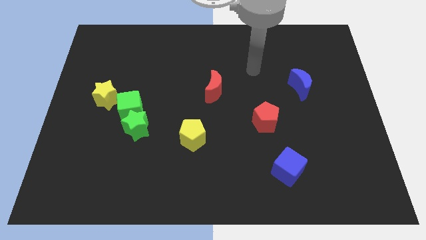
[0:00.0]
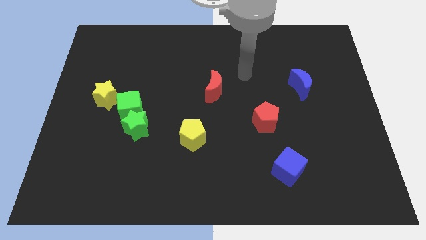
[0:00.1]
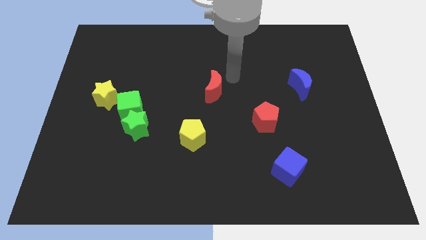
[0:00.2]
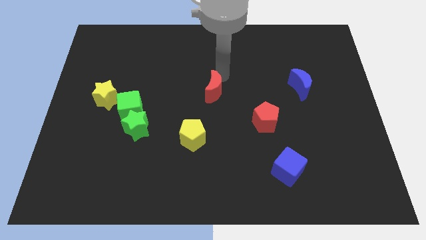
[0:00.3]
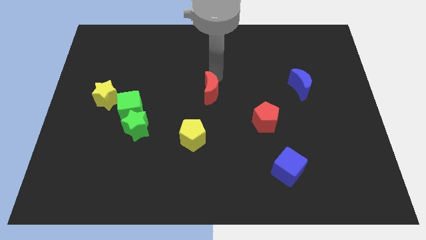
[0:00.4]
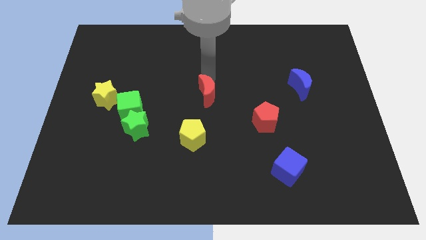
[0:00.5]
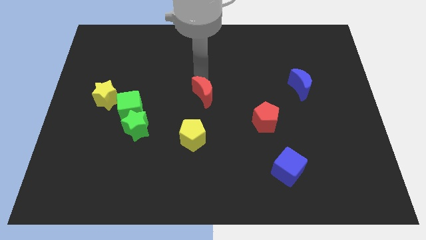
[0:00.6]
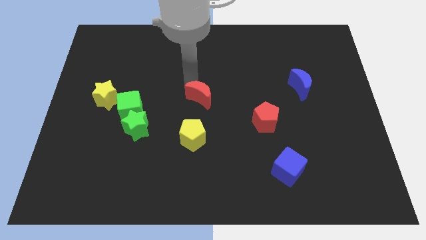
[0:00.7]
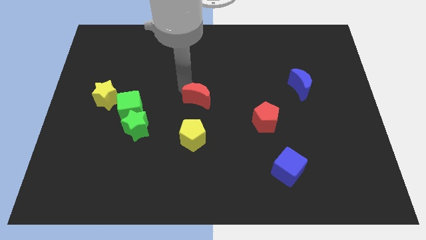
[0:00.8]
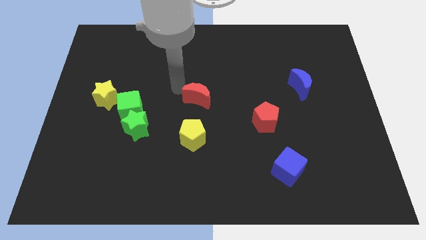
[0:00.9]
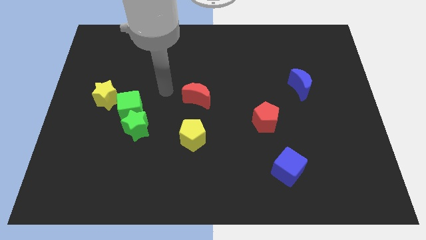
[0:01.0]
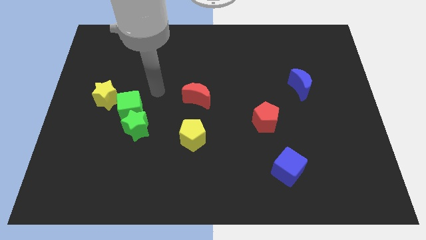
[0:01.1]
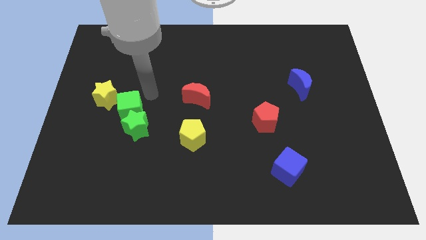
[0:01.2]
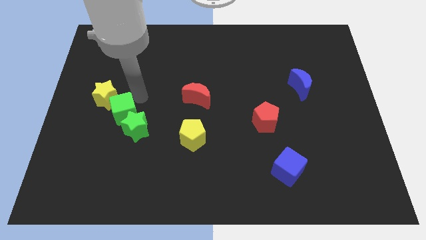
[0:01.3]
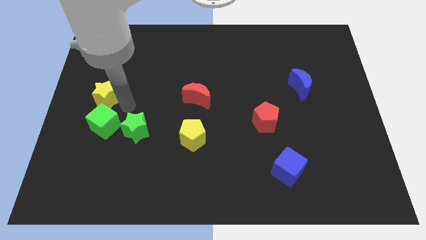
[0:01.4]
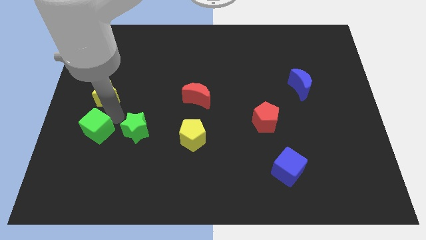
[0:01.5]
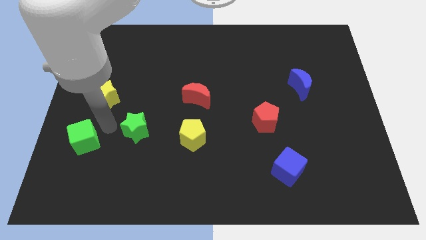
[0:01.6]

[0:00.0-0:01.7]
pull the green star apart from the green cube

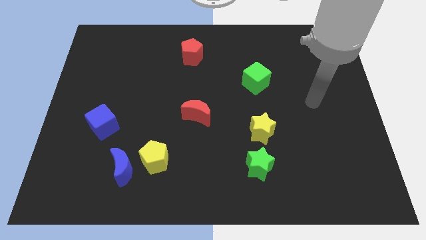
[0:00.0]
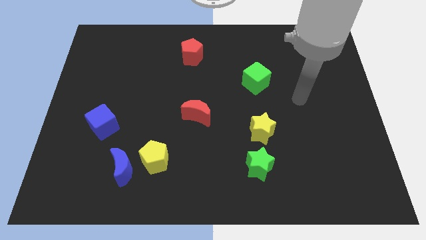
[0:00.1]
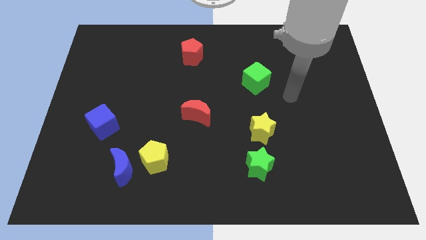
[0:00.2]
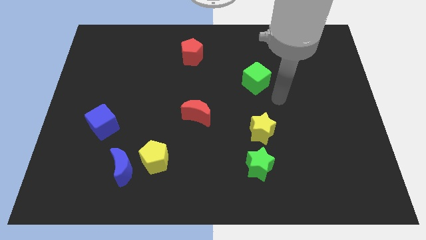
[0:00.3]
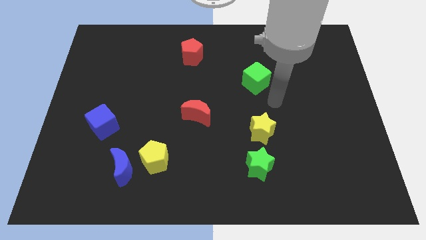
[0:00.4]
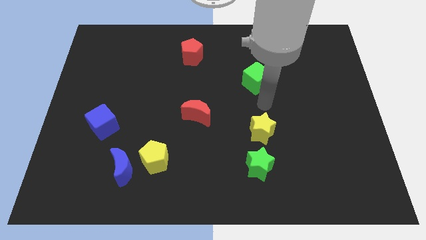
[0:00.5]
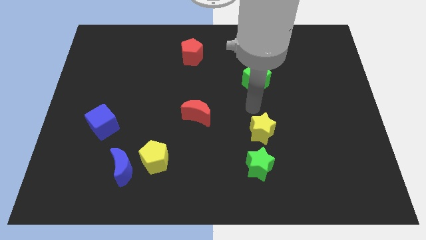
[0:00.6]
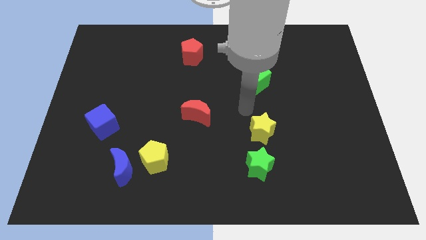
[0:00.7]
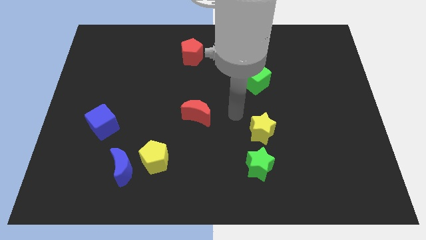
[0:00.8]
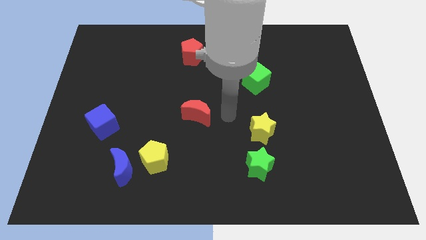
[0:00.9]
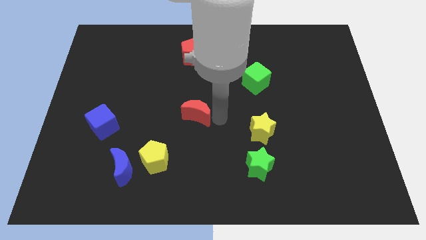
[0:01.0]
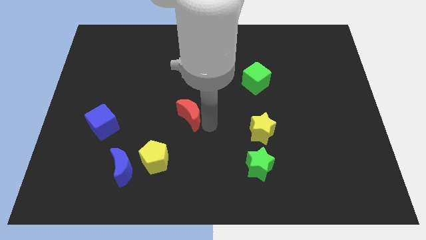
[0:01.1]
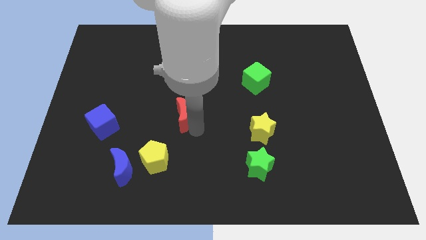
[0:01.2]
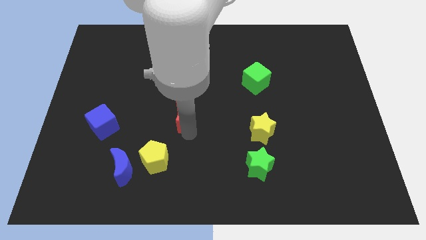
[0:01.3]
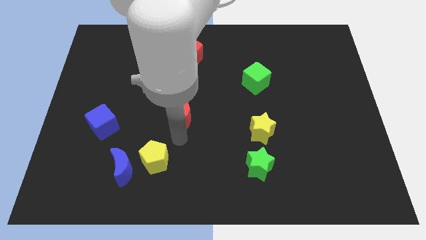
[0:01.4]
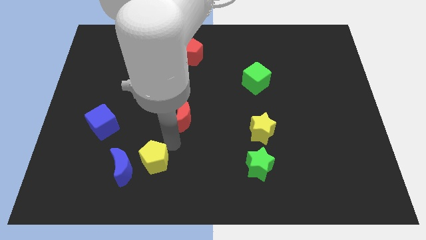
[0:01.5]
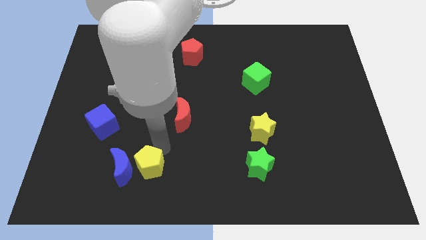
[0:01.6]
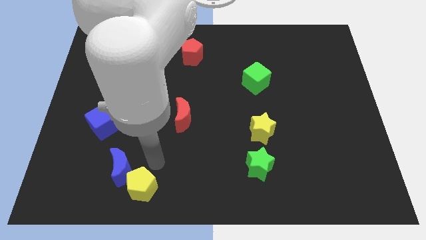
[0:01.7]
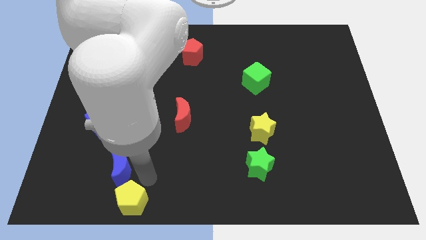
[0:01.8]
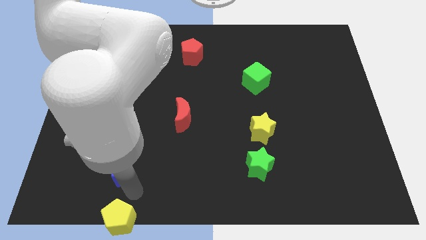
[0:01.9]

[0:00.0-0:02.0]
move the blue moon away from the yellow pentagon

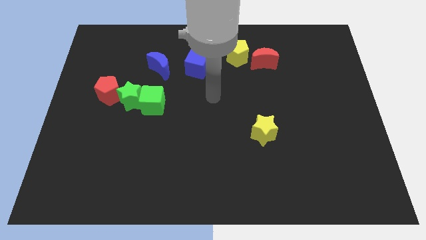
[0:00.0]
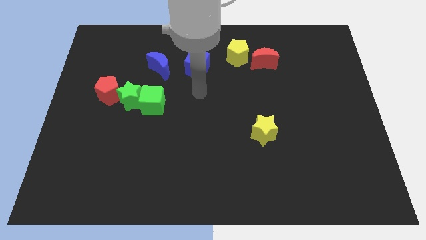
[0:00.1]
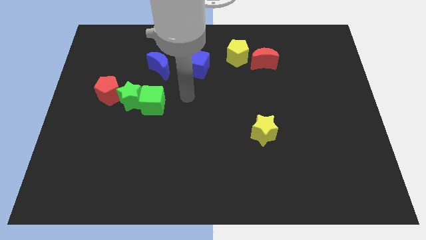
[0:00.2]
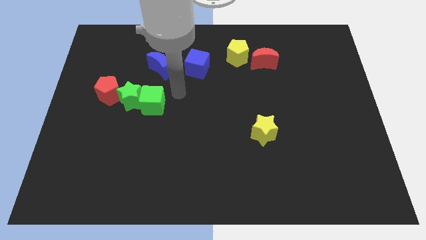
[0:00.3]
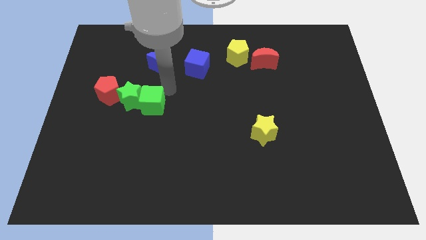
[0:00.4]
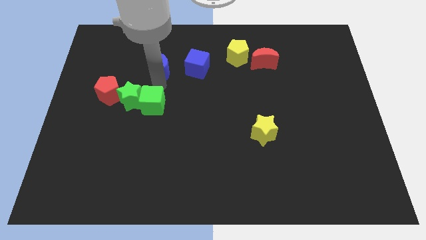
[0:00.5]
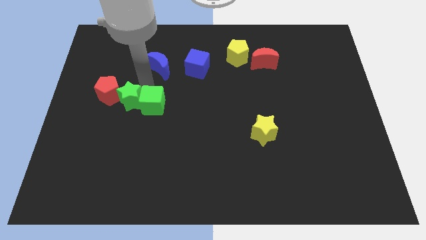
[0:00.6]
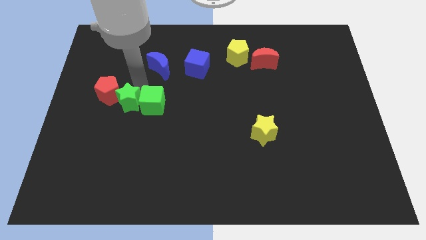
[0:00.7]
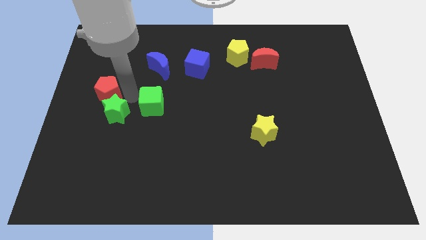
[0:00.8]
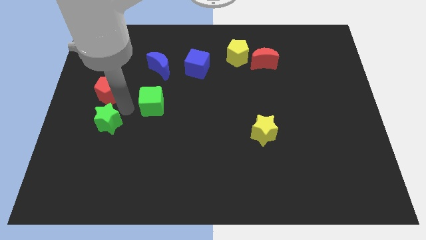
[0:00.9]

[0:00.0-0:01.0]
move the green cube away from the green star

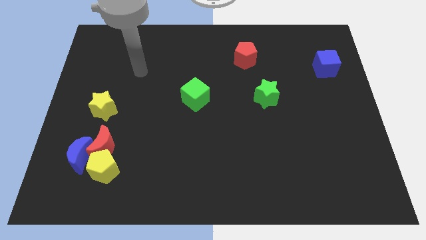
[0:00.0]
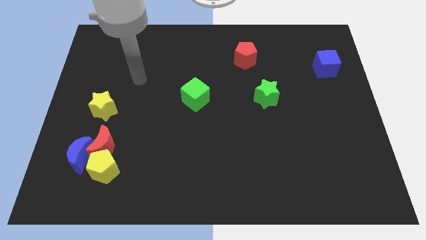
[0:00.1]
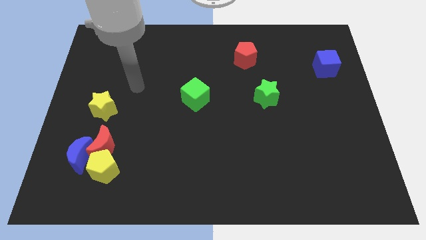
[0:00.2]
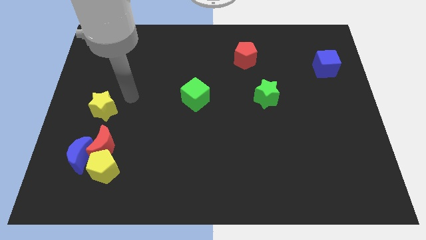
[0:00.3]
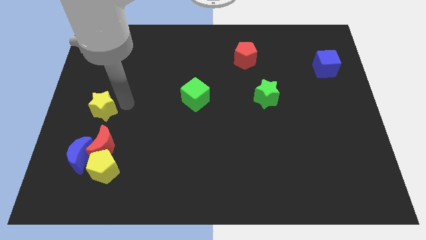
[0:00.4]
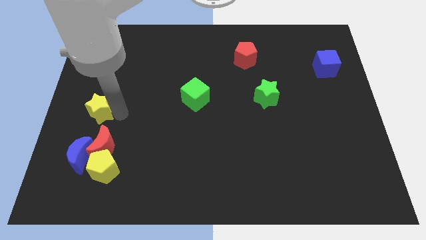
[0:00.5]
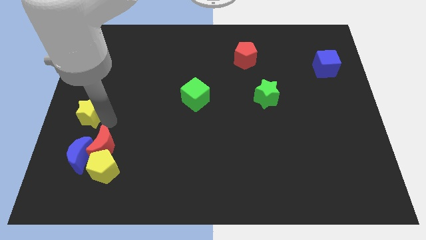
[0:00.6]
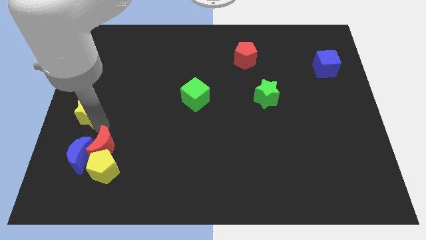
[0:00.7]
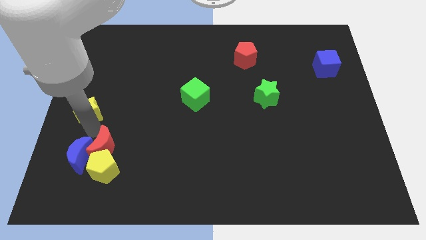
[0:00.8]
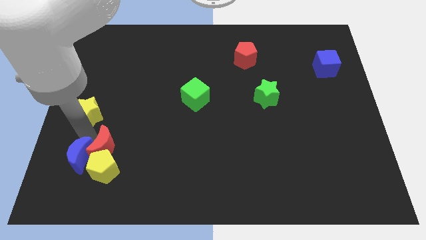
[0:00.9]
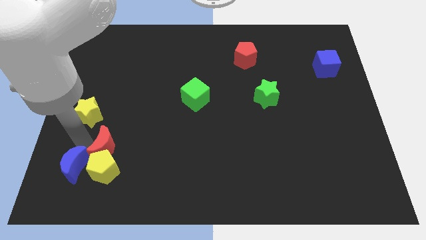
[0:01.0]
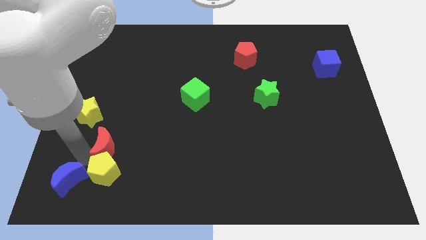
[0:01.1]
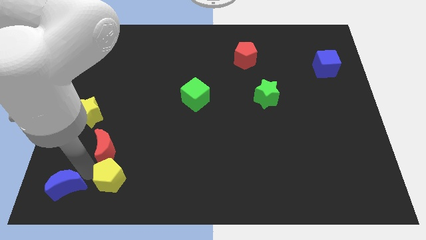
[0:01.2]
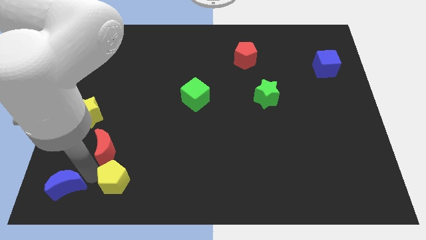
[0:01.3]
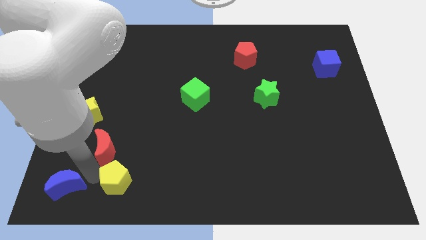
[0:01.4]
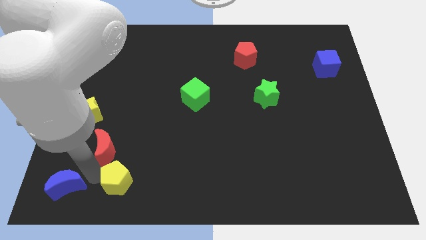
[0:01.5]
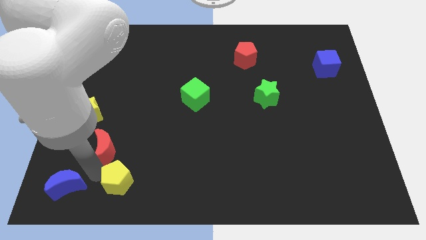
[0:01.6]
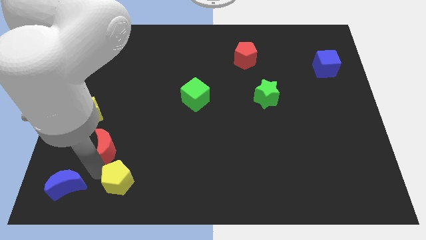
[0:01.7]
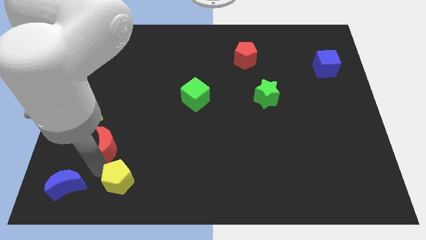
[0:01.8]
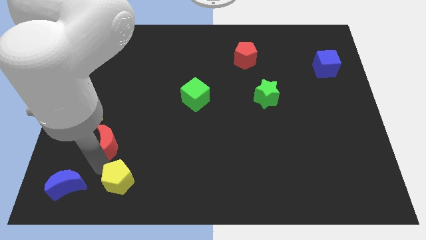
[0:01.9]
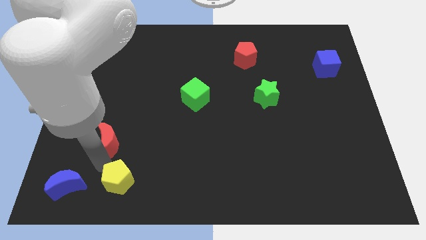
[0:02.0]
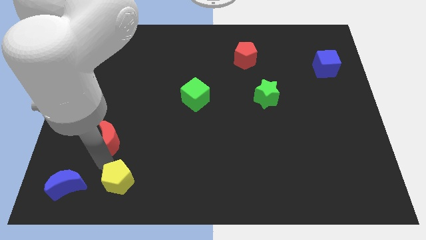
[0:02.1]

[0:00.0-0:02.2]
move the red moon away from the blue moon and yellow pentagon

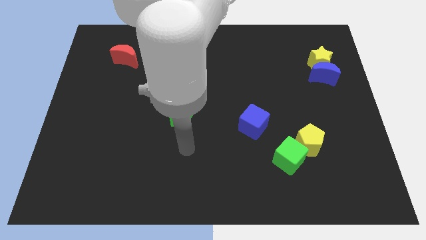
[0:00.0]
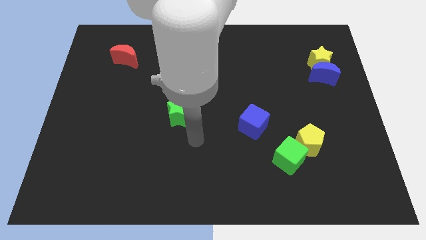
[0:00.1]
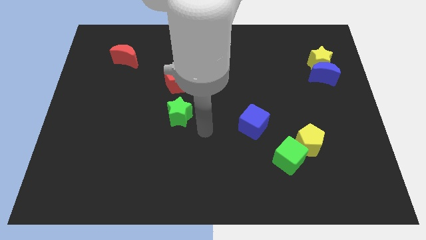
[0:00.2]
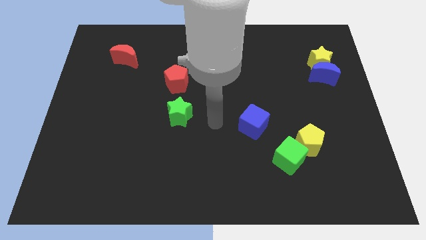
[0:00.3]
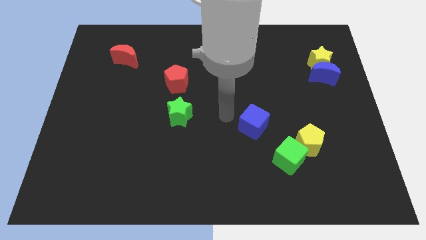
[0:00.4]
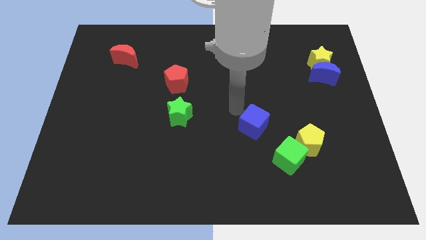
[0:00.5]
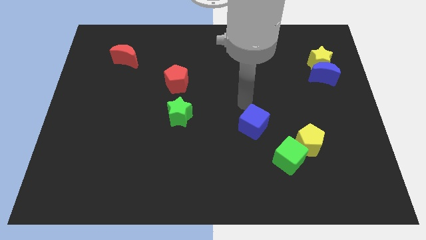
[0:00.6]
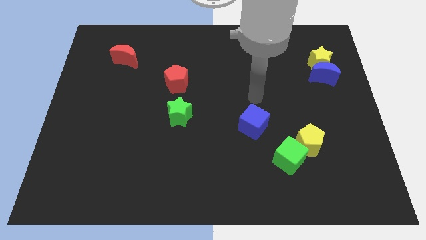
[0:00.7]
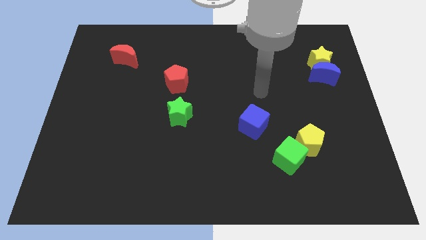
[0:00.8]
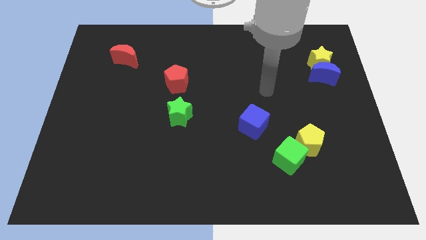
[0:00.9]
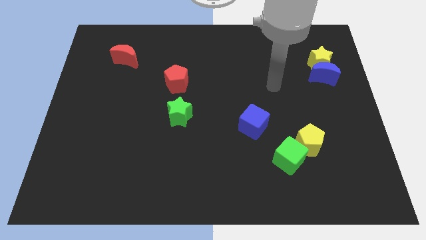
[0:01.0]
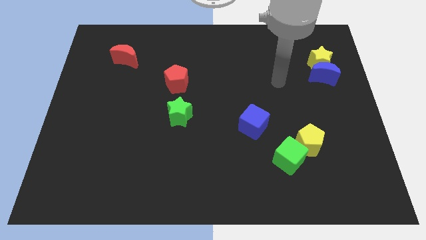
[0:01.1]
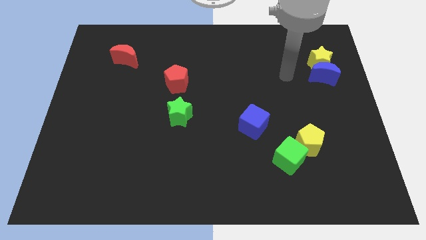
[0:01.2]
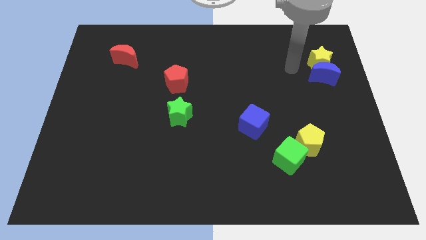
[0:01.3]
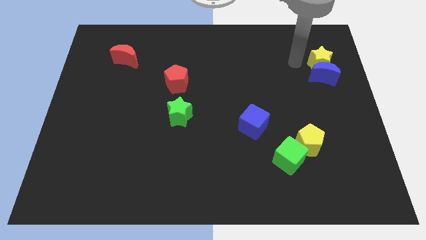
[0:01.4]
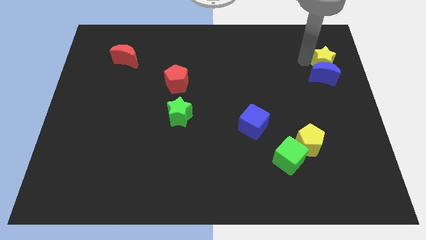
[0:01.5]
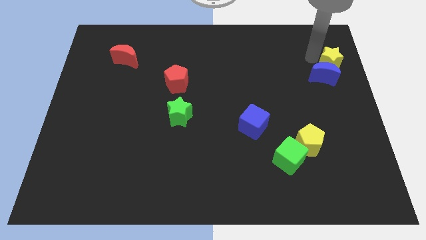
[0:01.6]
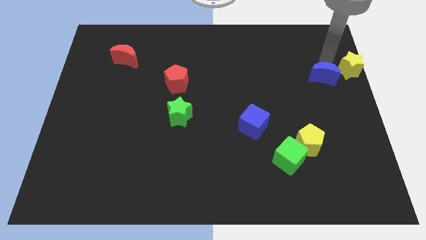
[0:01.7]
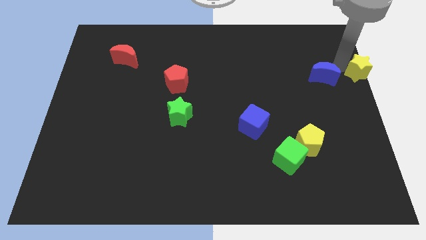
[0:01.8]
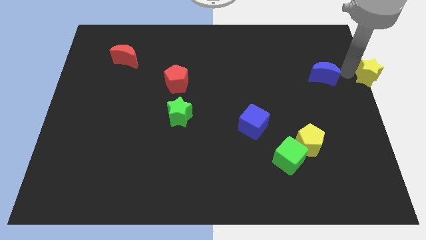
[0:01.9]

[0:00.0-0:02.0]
move the blue moon away from the yellow star

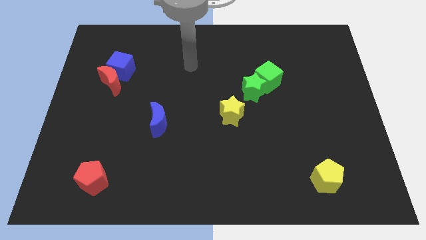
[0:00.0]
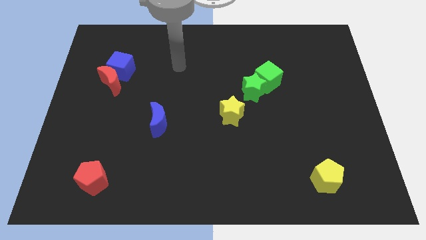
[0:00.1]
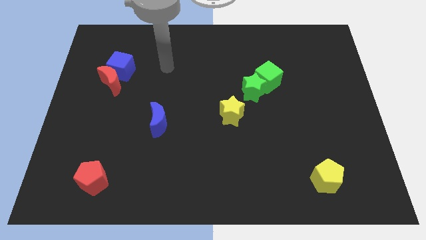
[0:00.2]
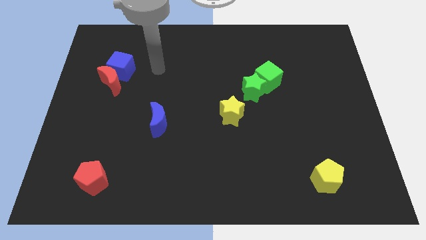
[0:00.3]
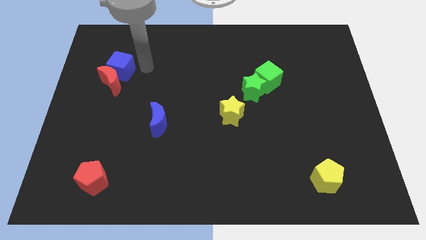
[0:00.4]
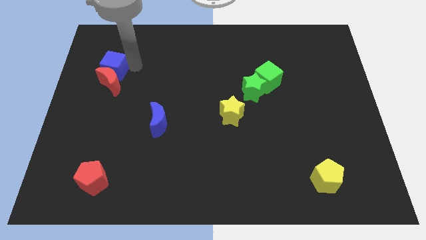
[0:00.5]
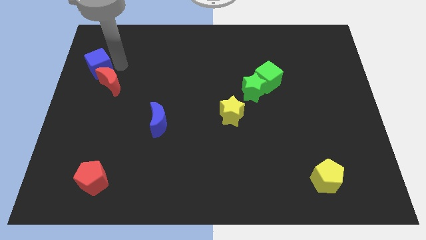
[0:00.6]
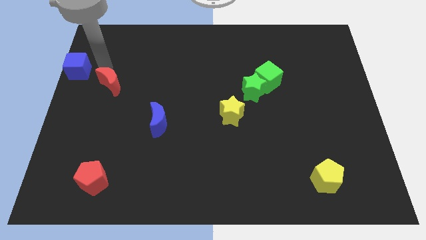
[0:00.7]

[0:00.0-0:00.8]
pull the red moon apart from the blue cube
